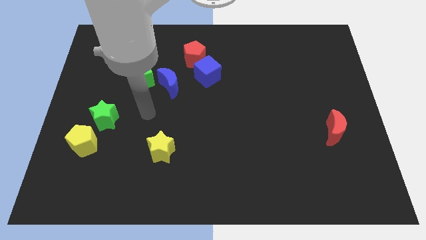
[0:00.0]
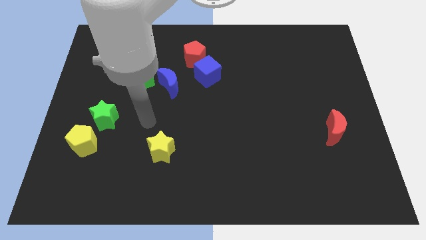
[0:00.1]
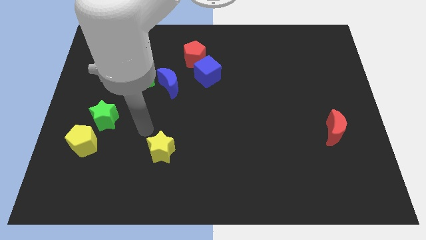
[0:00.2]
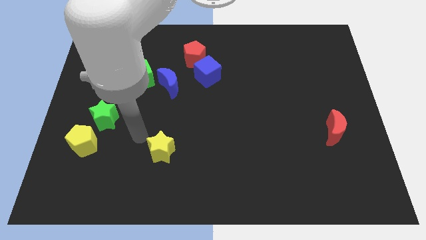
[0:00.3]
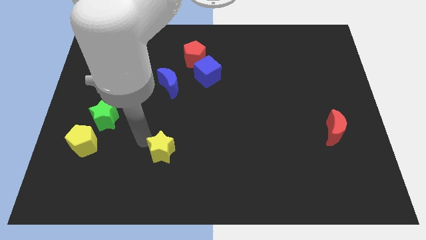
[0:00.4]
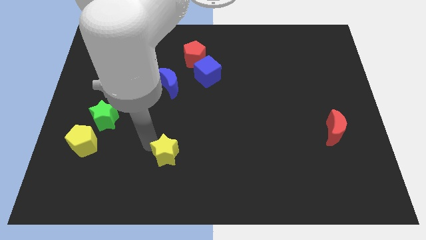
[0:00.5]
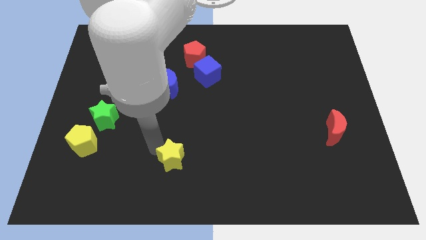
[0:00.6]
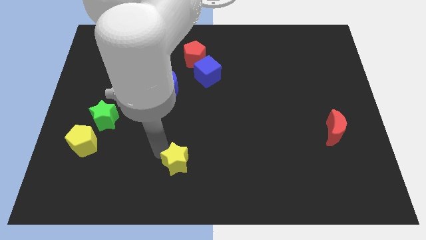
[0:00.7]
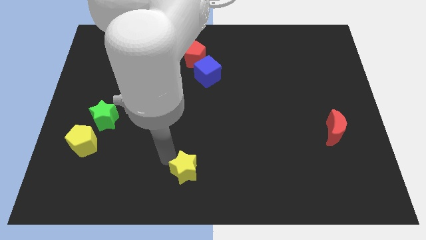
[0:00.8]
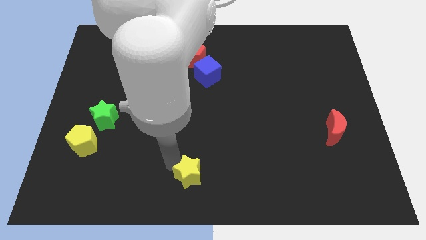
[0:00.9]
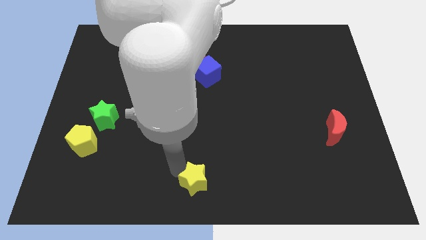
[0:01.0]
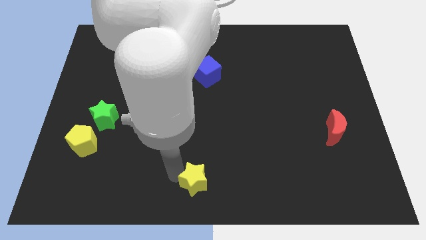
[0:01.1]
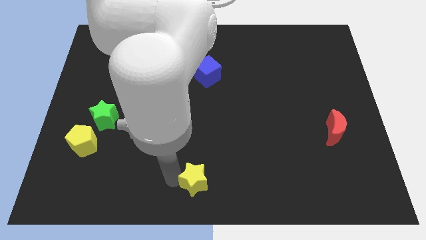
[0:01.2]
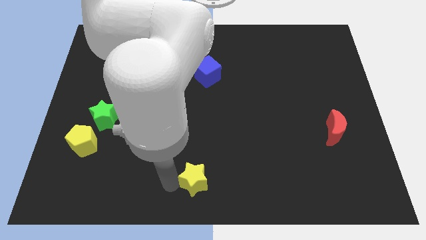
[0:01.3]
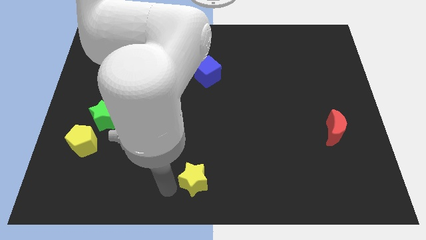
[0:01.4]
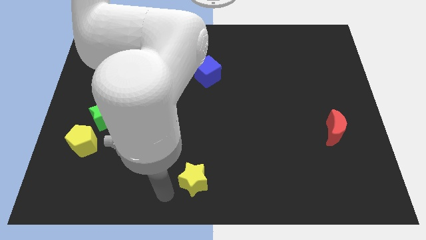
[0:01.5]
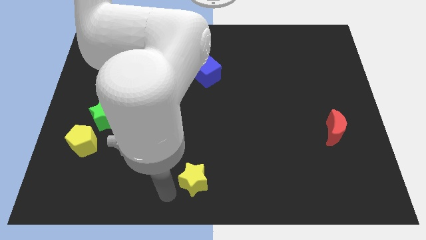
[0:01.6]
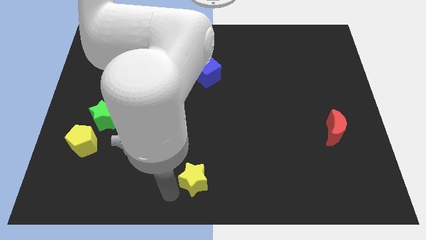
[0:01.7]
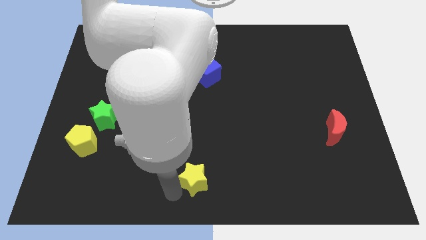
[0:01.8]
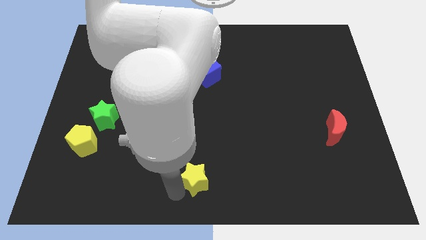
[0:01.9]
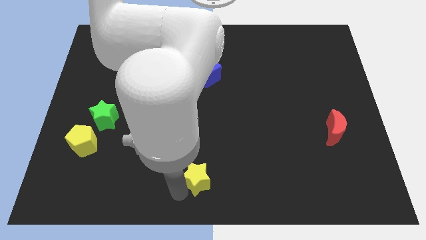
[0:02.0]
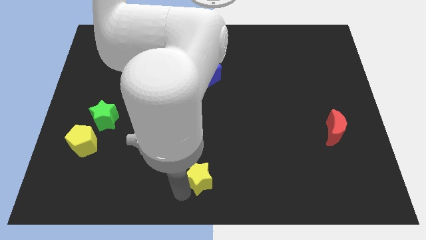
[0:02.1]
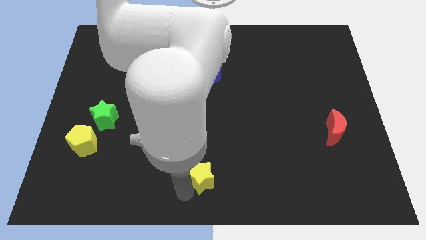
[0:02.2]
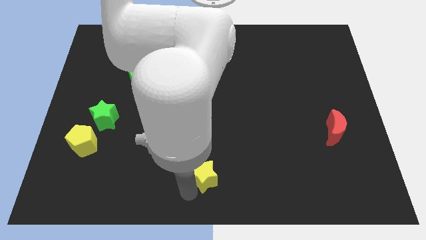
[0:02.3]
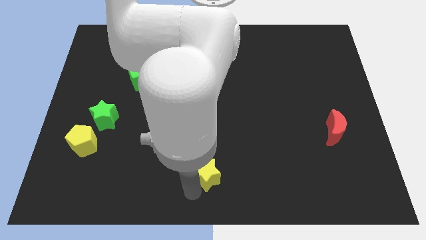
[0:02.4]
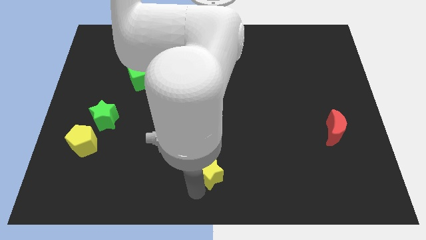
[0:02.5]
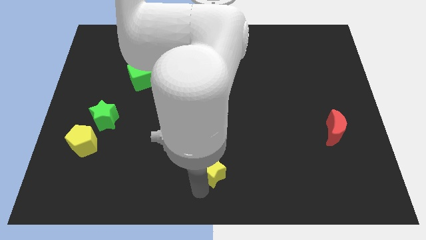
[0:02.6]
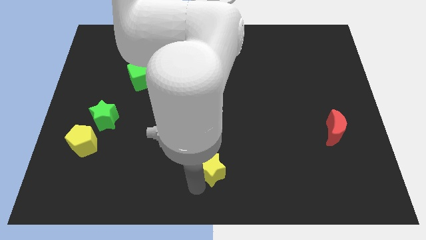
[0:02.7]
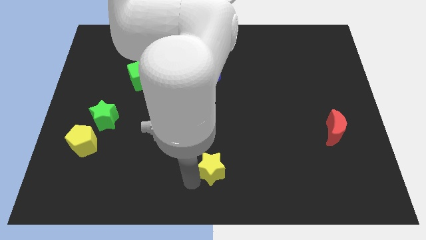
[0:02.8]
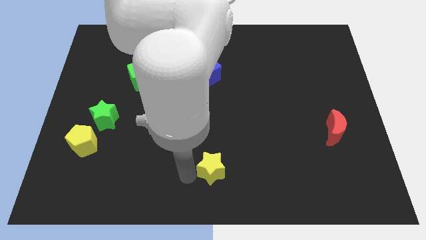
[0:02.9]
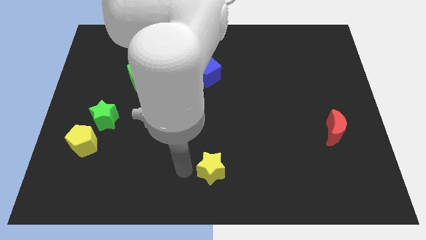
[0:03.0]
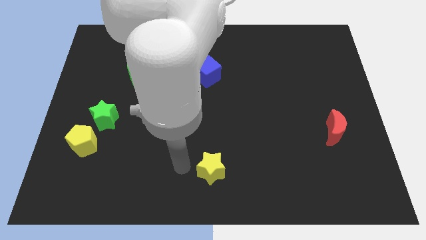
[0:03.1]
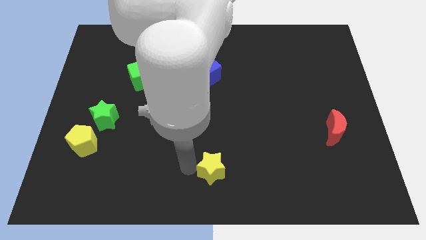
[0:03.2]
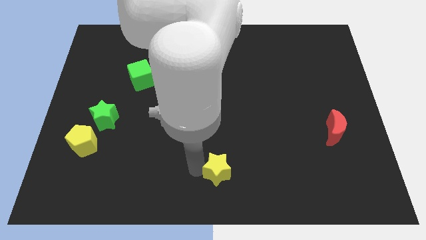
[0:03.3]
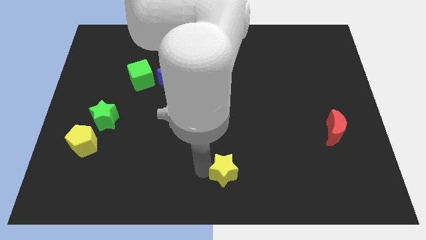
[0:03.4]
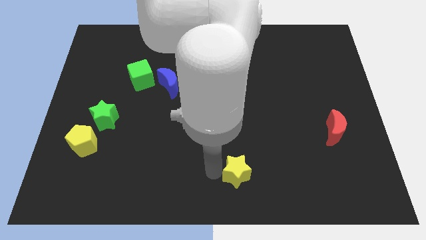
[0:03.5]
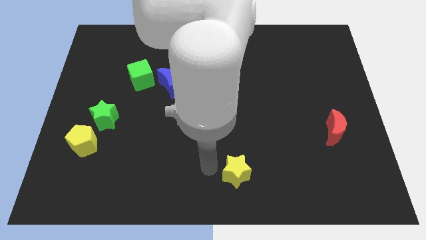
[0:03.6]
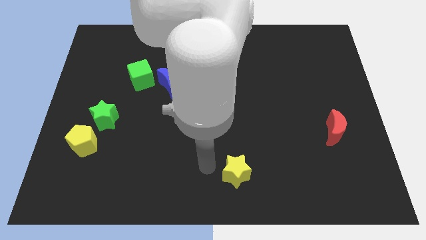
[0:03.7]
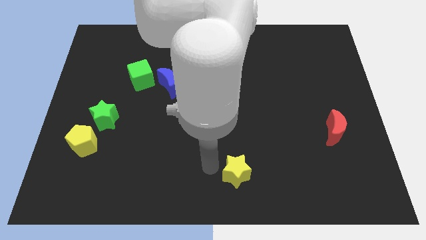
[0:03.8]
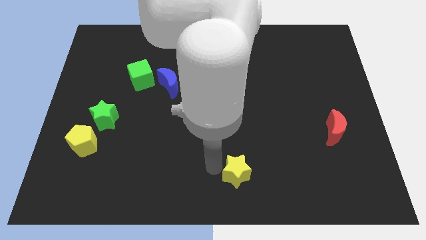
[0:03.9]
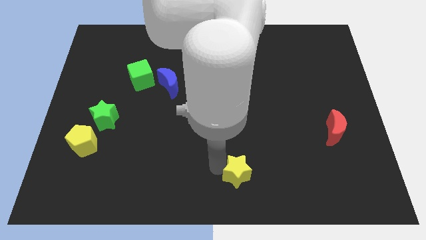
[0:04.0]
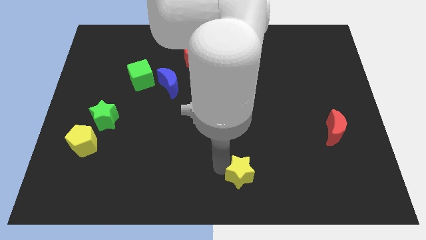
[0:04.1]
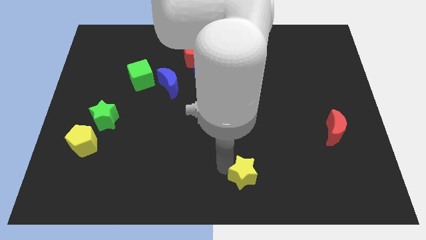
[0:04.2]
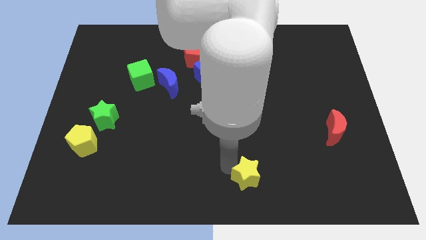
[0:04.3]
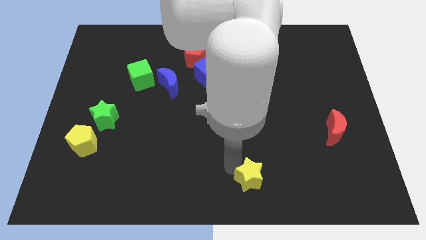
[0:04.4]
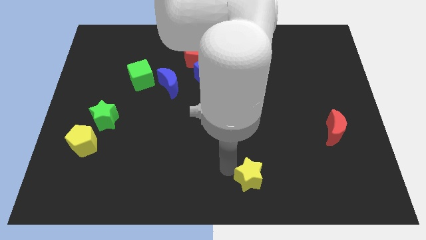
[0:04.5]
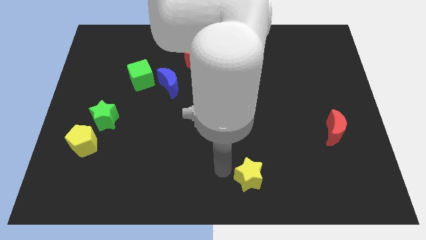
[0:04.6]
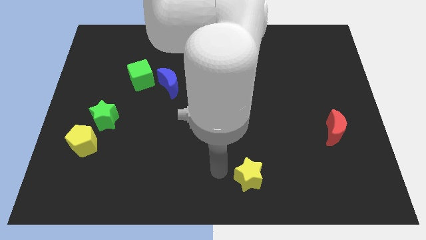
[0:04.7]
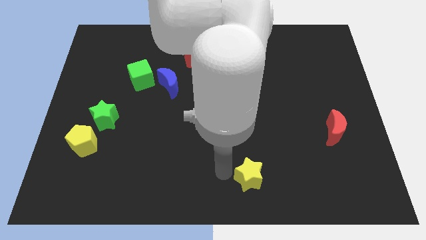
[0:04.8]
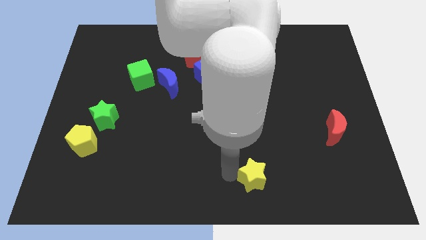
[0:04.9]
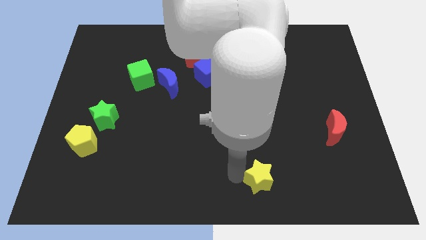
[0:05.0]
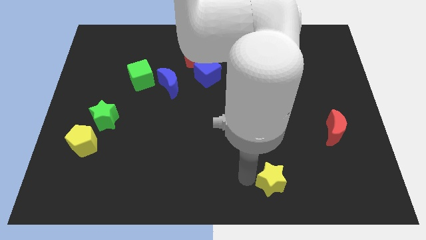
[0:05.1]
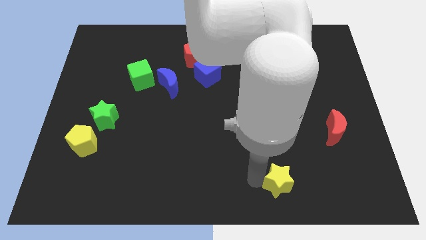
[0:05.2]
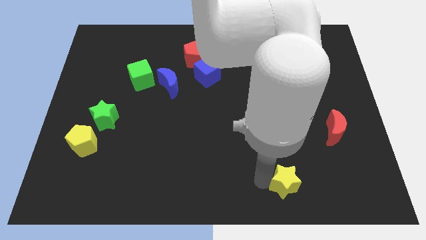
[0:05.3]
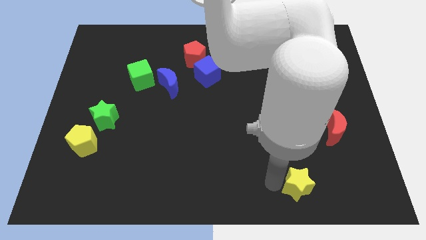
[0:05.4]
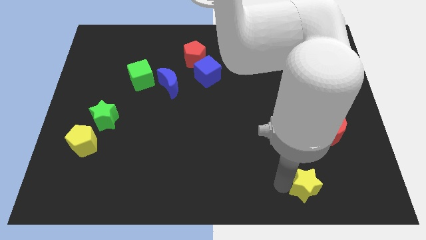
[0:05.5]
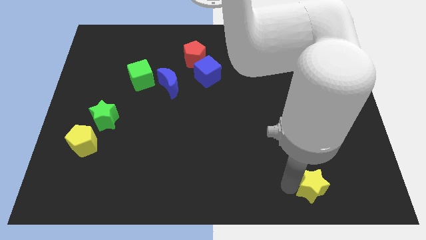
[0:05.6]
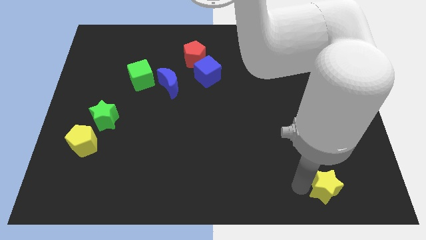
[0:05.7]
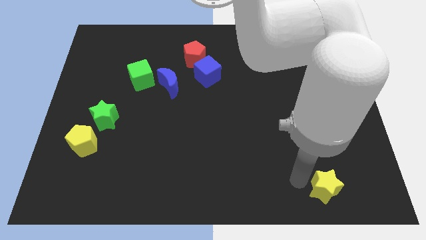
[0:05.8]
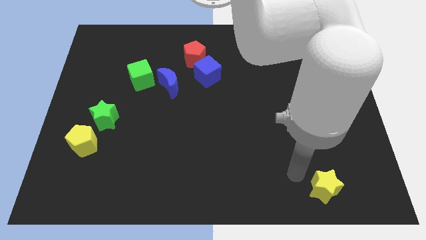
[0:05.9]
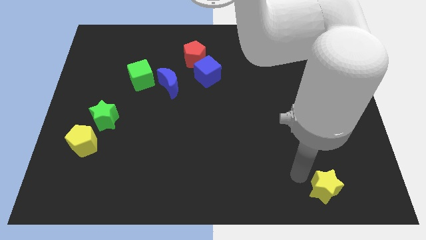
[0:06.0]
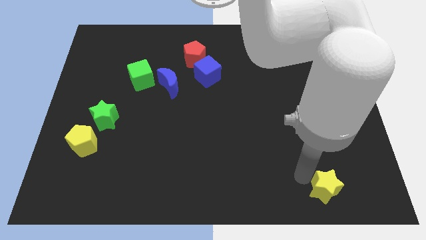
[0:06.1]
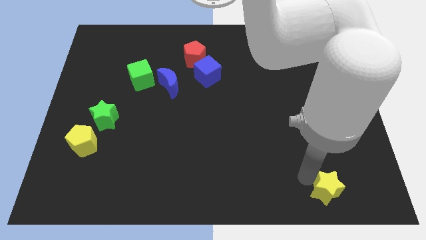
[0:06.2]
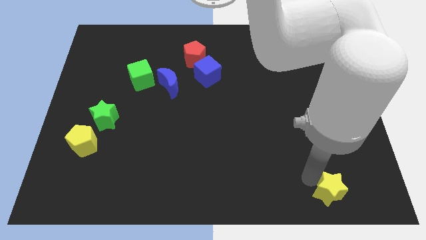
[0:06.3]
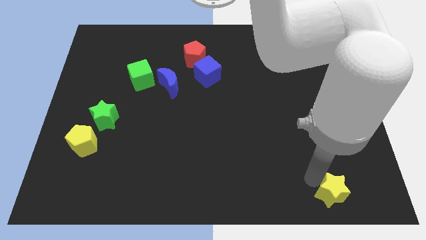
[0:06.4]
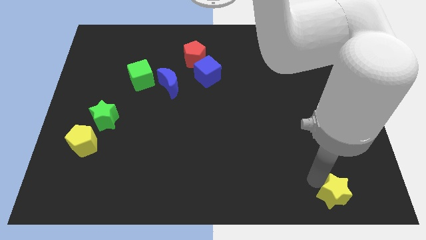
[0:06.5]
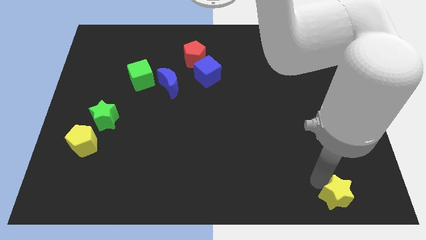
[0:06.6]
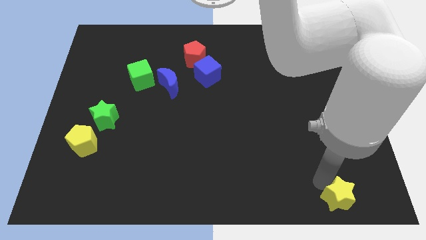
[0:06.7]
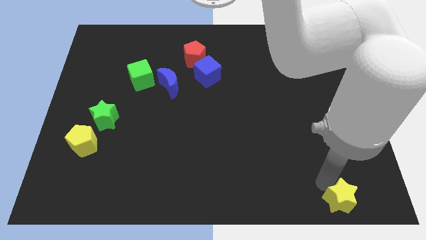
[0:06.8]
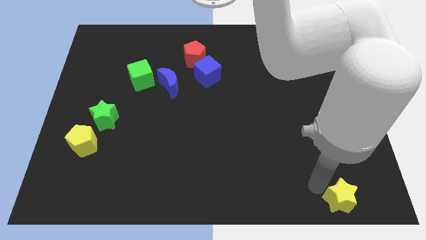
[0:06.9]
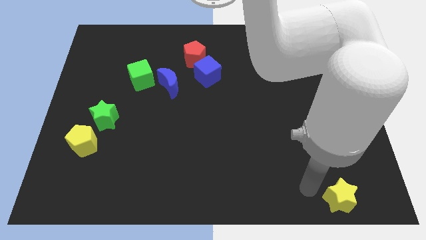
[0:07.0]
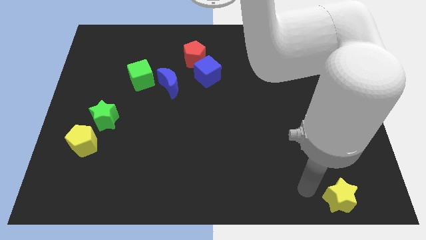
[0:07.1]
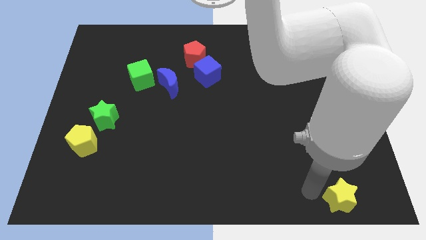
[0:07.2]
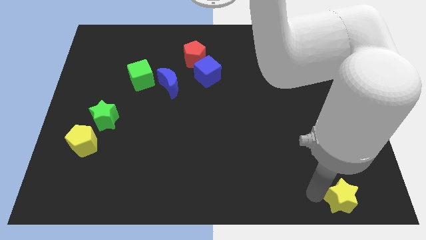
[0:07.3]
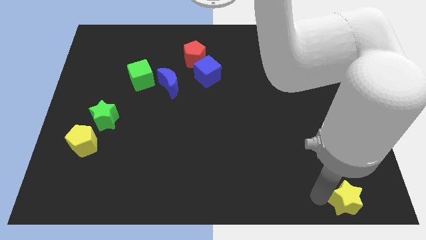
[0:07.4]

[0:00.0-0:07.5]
put the yellow star to the bottom right

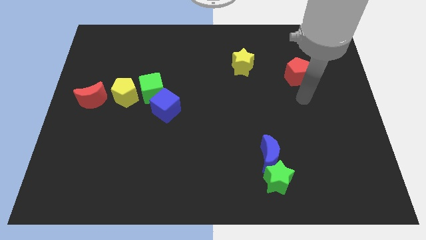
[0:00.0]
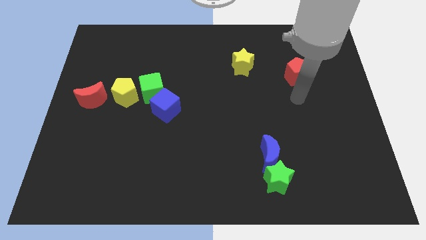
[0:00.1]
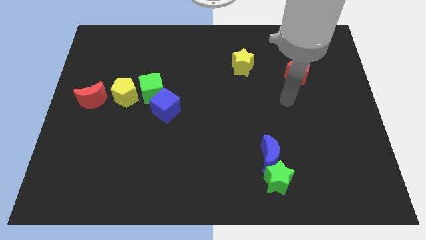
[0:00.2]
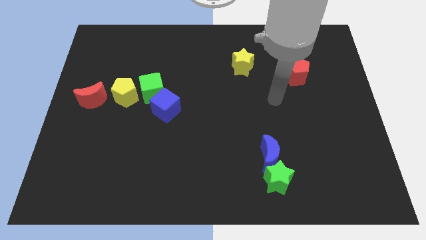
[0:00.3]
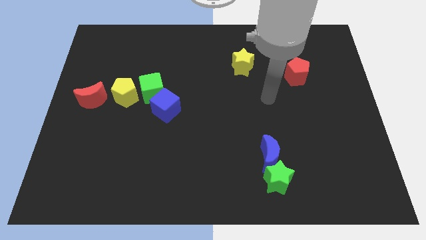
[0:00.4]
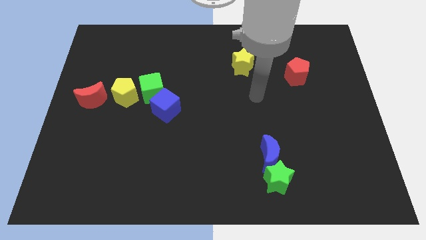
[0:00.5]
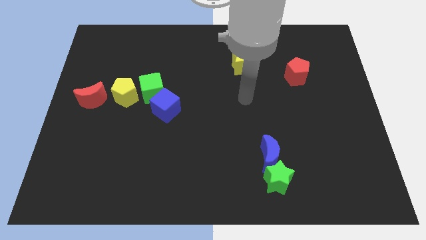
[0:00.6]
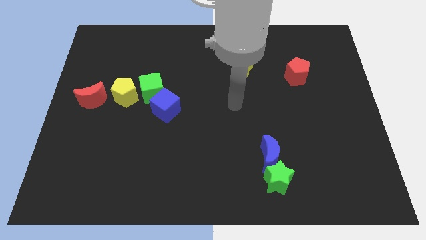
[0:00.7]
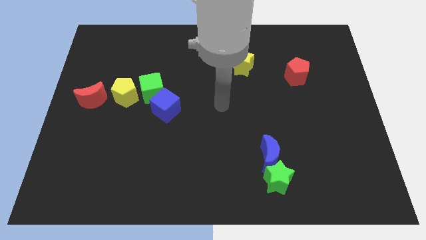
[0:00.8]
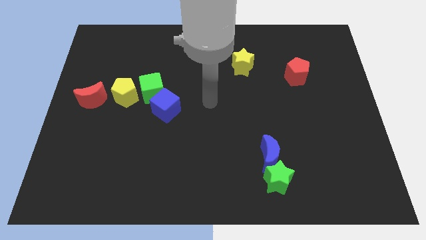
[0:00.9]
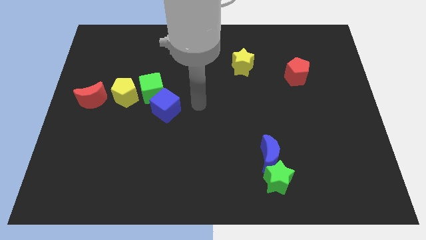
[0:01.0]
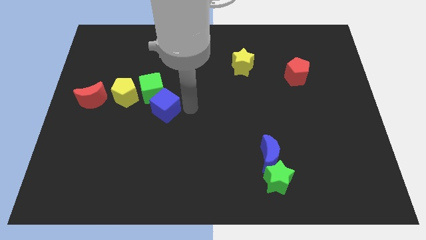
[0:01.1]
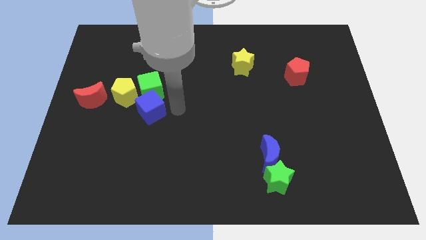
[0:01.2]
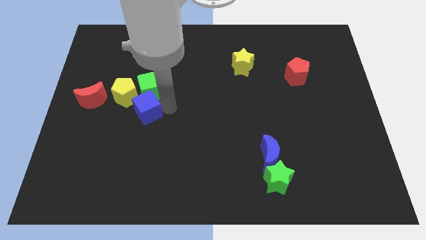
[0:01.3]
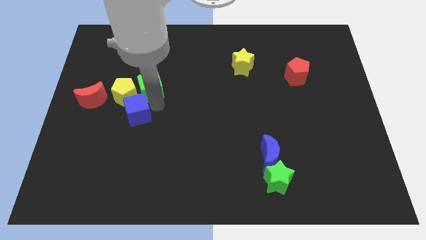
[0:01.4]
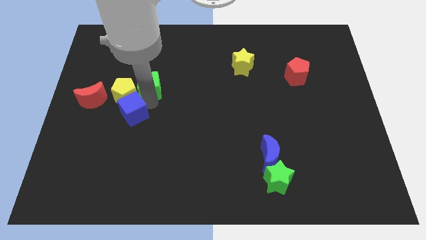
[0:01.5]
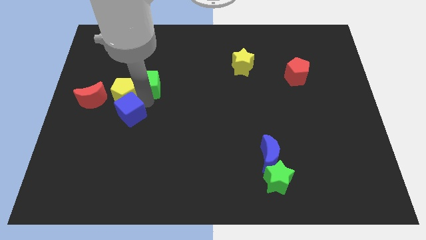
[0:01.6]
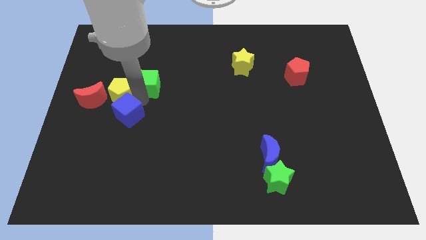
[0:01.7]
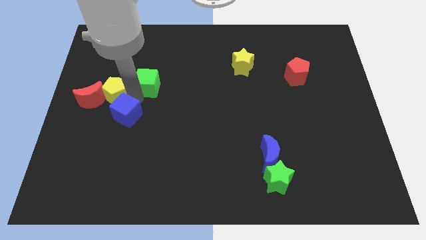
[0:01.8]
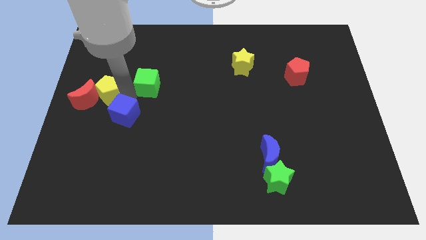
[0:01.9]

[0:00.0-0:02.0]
put the yellow pentagon to the center left
